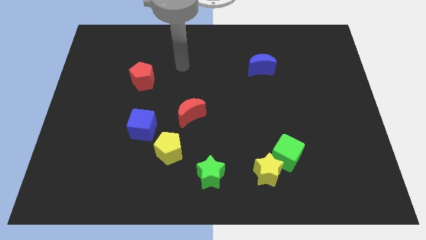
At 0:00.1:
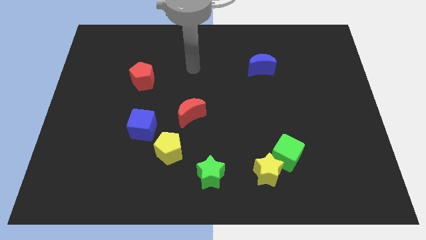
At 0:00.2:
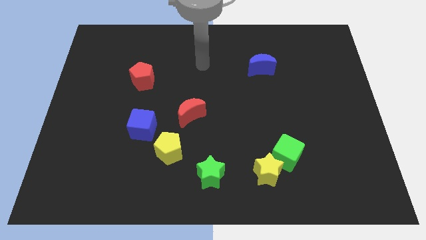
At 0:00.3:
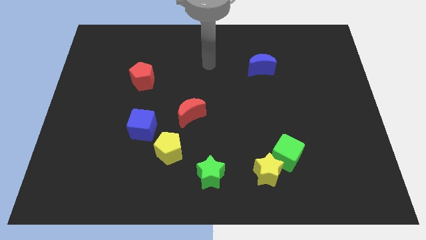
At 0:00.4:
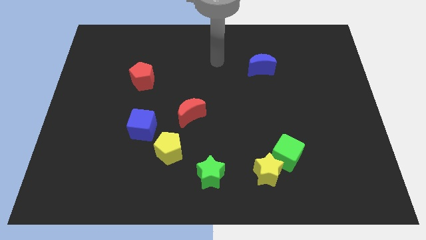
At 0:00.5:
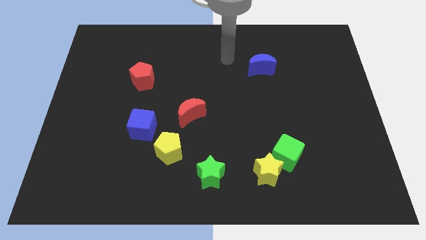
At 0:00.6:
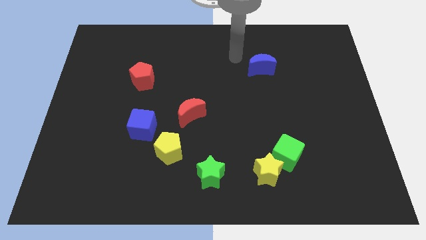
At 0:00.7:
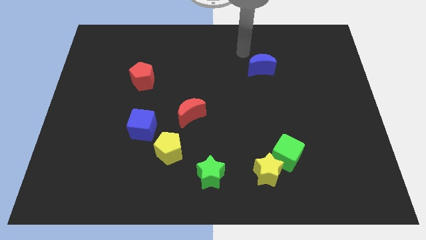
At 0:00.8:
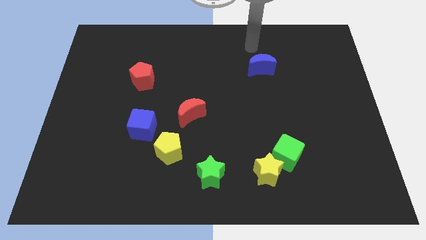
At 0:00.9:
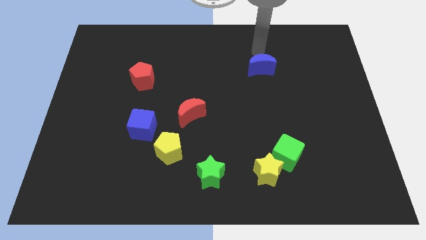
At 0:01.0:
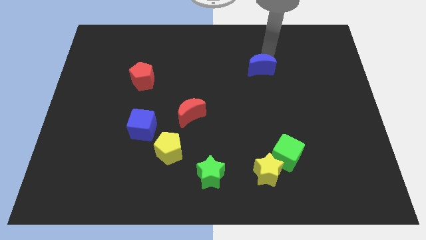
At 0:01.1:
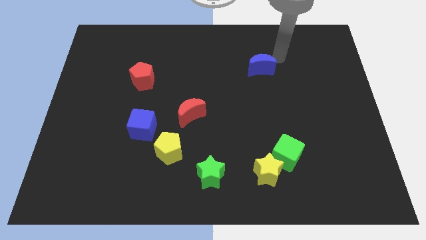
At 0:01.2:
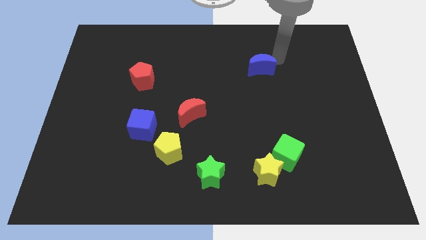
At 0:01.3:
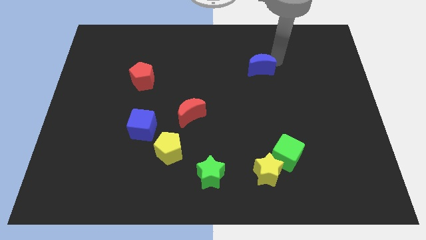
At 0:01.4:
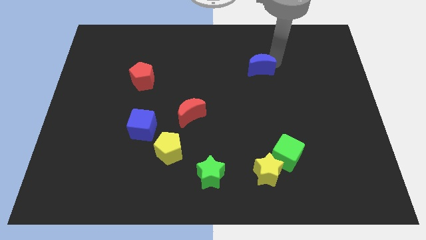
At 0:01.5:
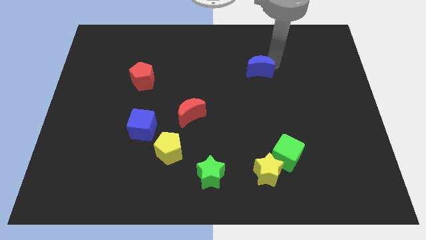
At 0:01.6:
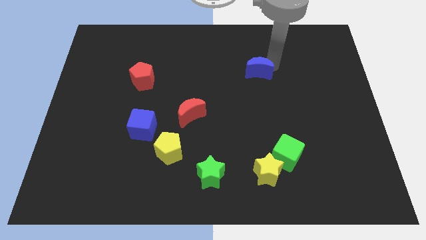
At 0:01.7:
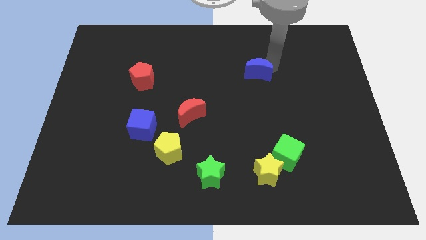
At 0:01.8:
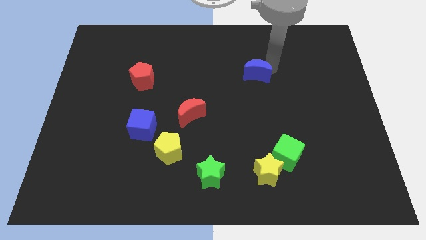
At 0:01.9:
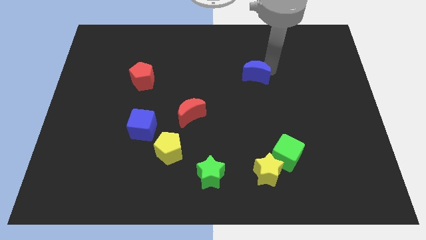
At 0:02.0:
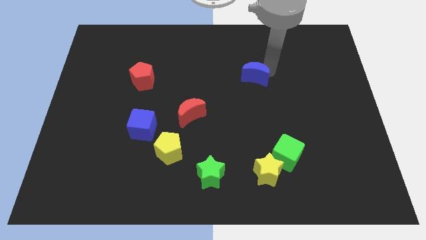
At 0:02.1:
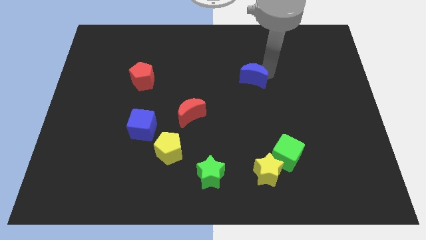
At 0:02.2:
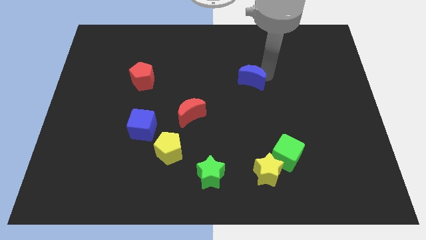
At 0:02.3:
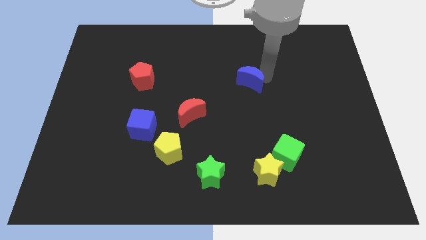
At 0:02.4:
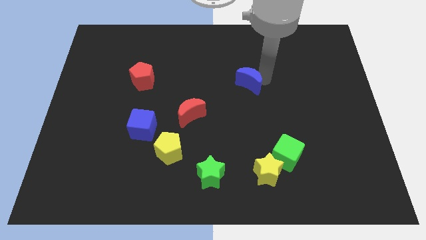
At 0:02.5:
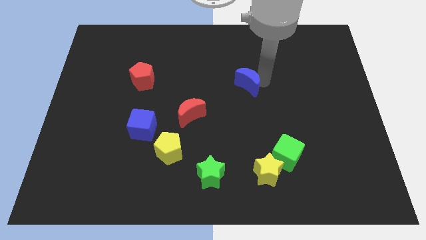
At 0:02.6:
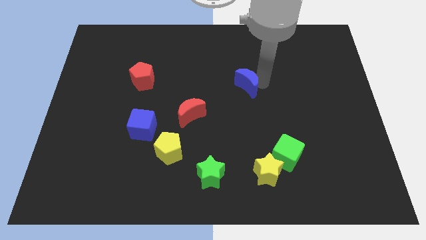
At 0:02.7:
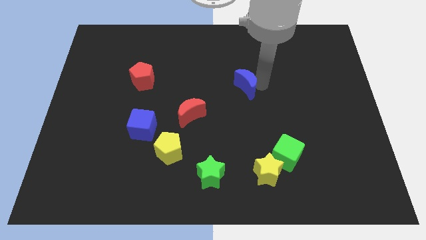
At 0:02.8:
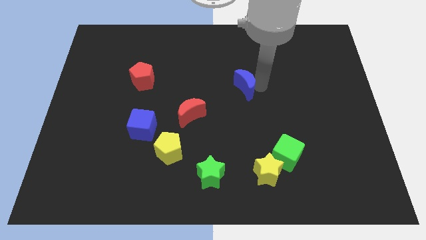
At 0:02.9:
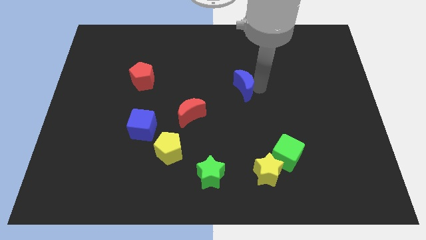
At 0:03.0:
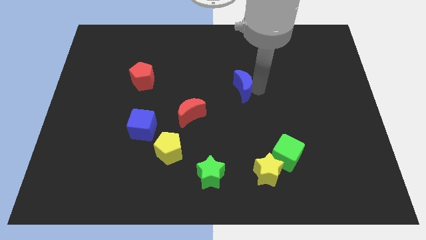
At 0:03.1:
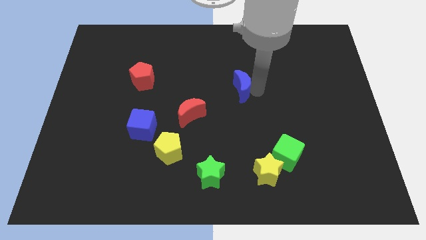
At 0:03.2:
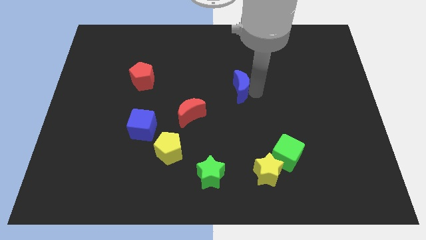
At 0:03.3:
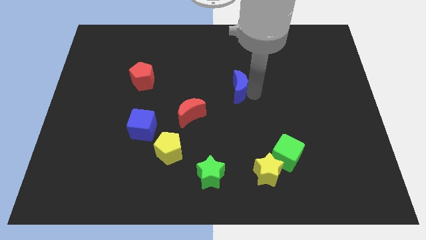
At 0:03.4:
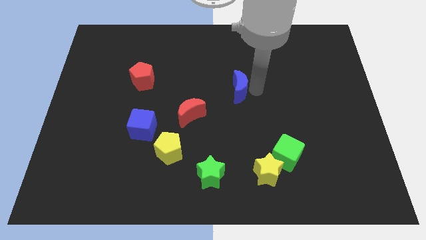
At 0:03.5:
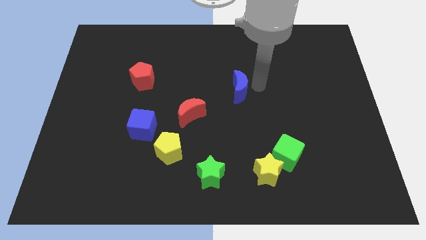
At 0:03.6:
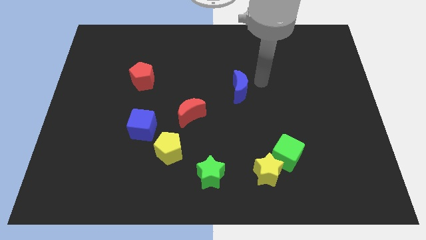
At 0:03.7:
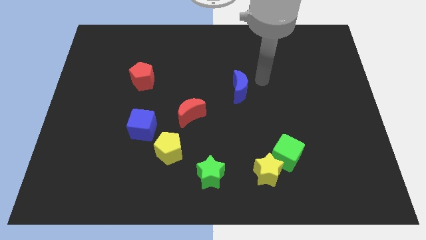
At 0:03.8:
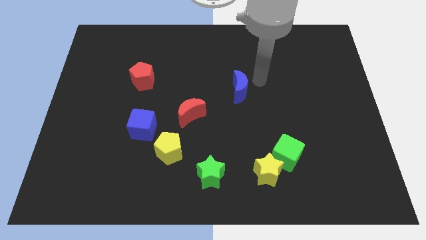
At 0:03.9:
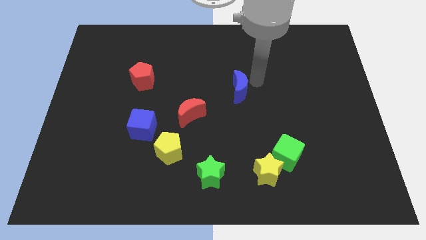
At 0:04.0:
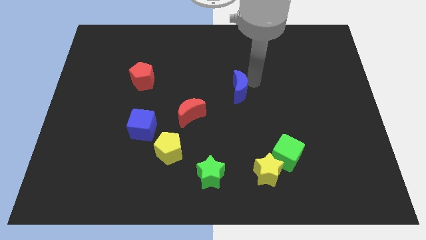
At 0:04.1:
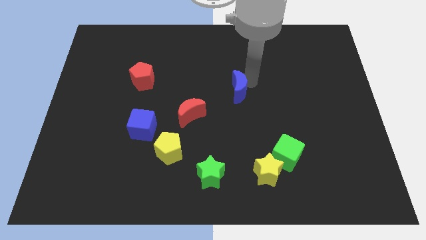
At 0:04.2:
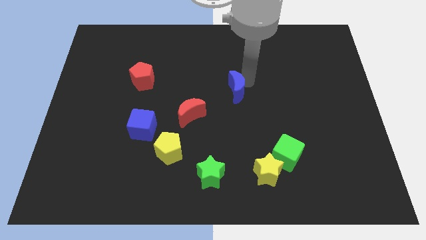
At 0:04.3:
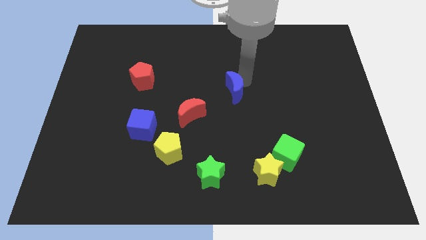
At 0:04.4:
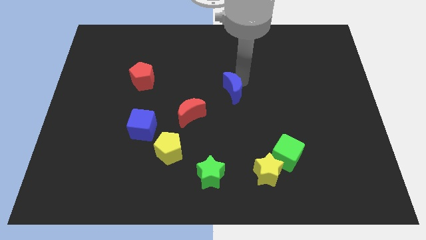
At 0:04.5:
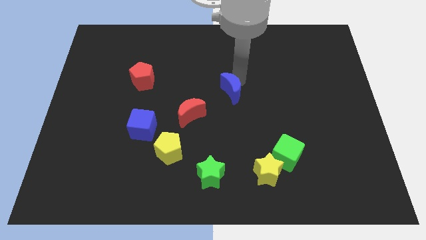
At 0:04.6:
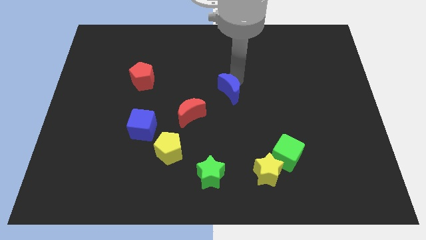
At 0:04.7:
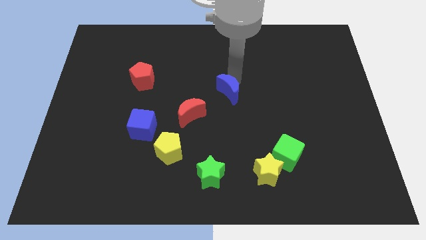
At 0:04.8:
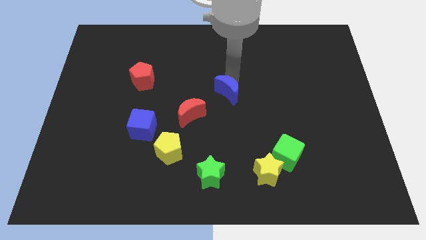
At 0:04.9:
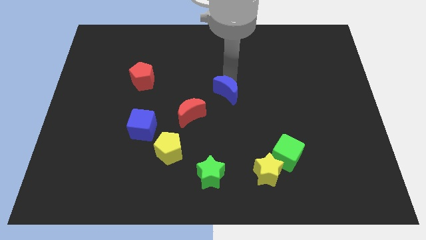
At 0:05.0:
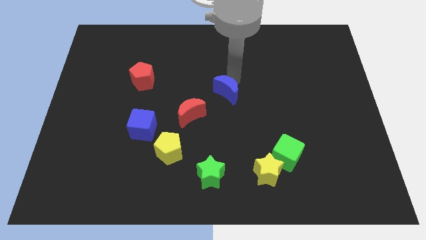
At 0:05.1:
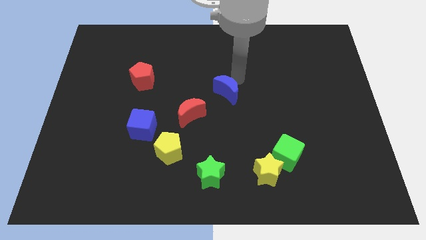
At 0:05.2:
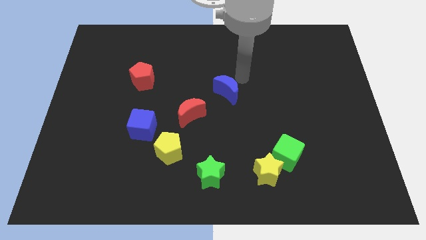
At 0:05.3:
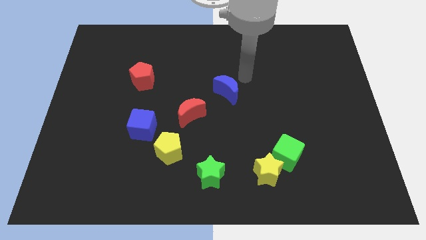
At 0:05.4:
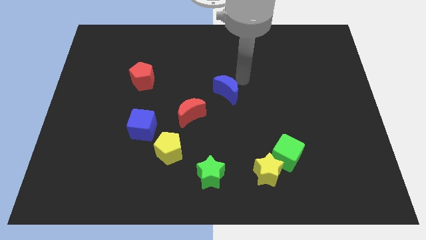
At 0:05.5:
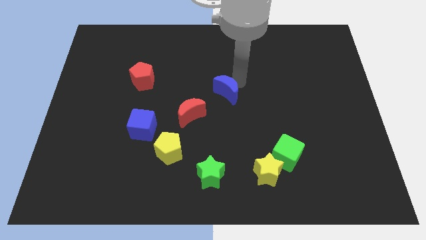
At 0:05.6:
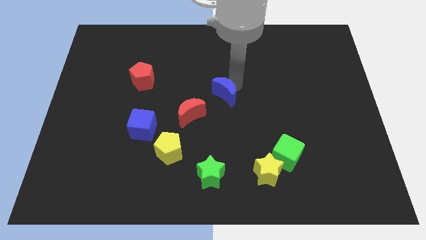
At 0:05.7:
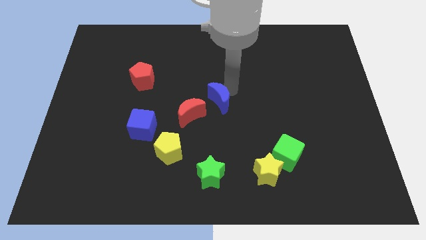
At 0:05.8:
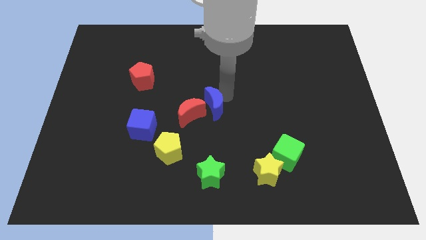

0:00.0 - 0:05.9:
put the blue moon close to the red moon
